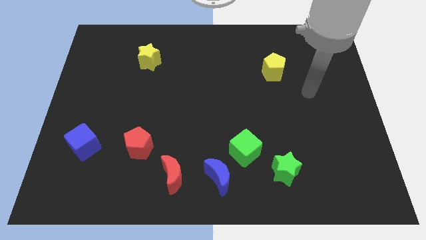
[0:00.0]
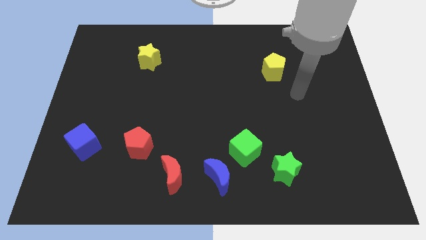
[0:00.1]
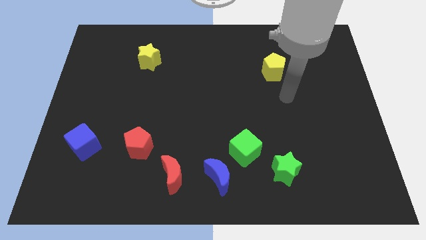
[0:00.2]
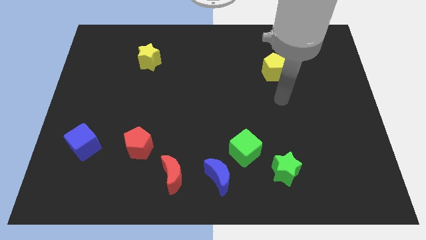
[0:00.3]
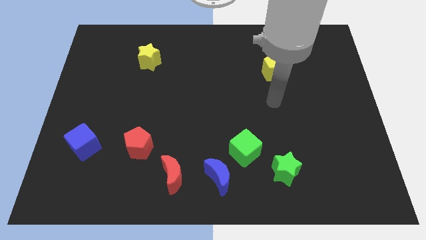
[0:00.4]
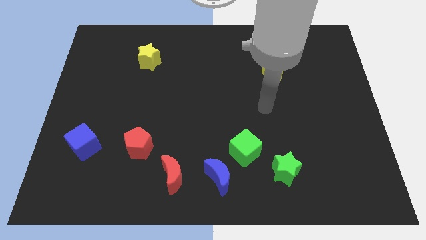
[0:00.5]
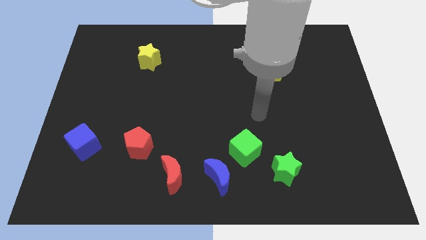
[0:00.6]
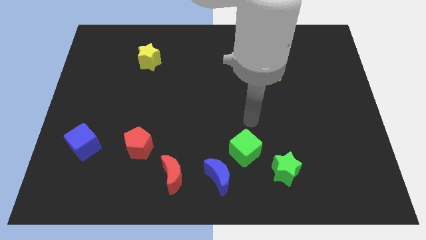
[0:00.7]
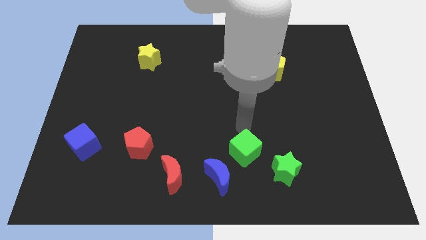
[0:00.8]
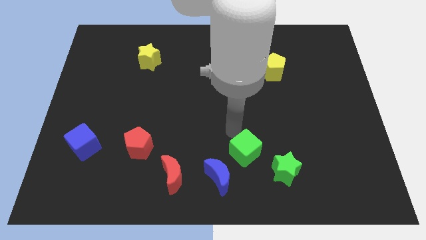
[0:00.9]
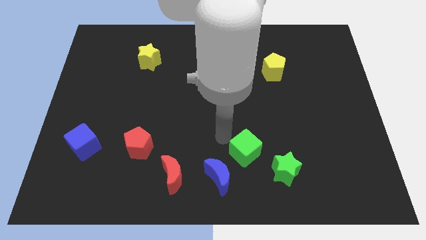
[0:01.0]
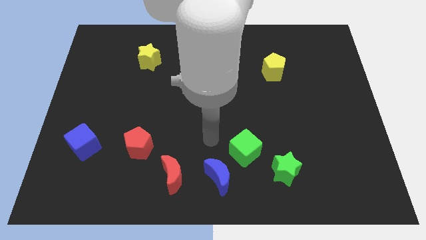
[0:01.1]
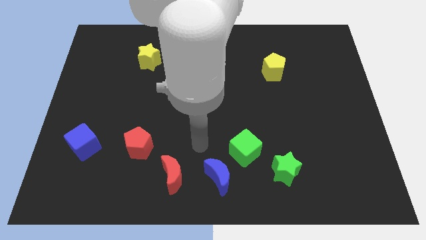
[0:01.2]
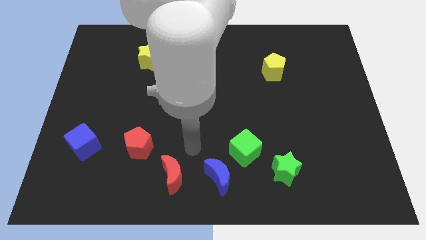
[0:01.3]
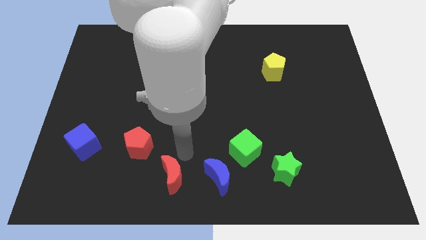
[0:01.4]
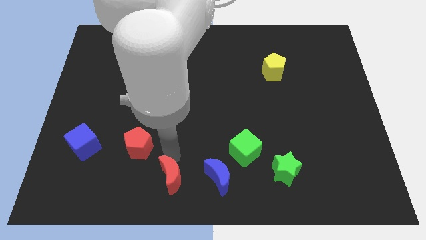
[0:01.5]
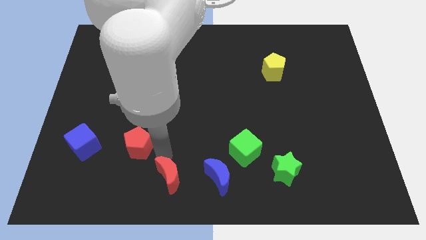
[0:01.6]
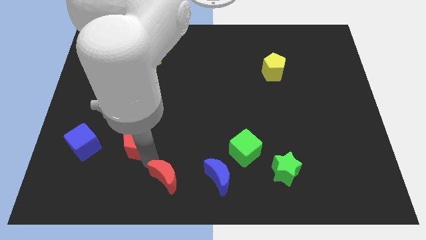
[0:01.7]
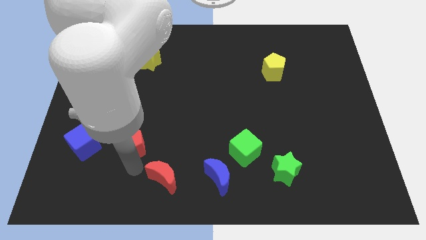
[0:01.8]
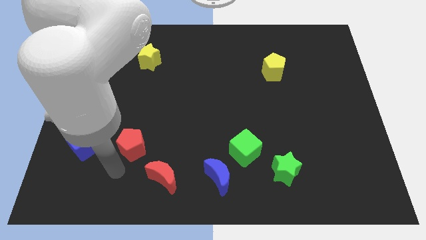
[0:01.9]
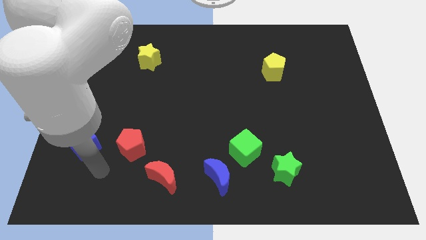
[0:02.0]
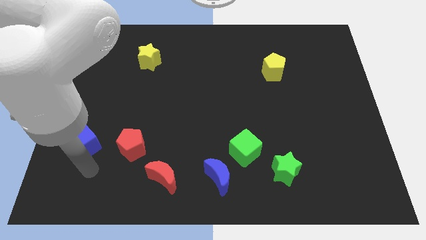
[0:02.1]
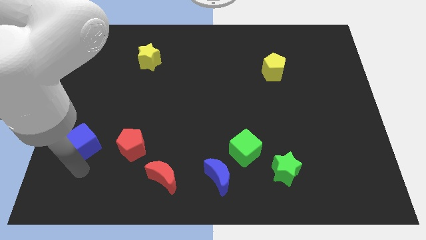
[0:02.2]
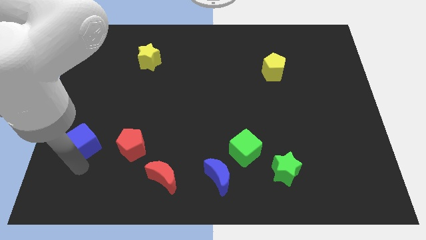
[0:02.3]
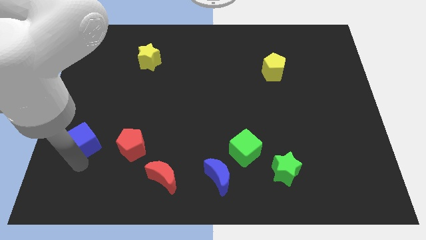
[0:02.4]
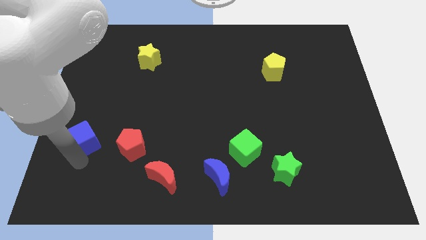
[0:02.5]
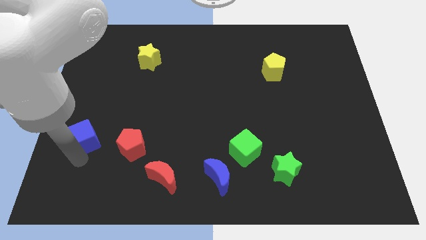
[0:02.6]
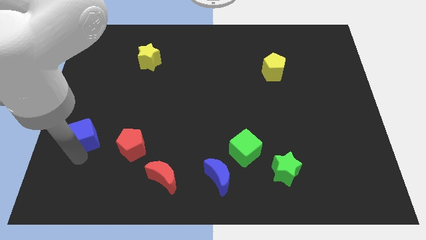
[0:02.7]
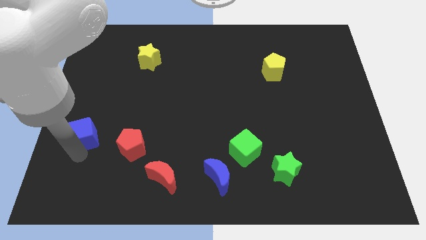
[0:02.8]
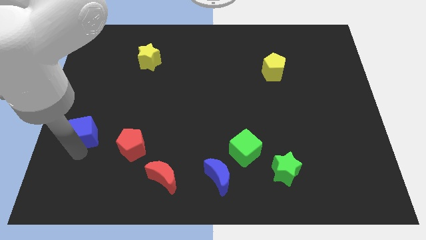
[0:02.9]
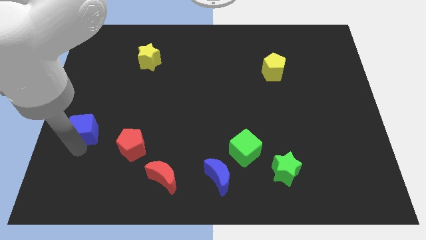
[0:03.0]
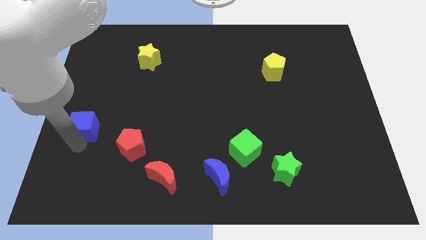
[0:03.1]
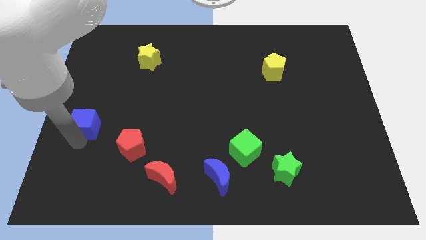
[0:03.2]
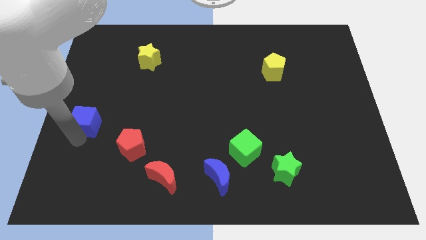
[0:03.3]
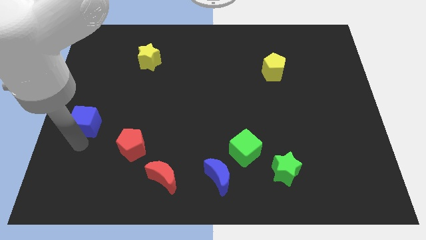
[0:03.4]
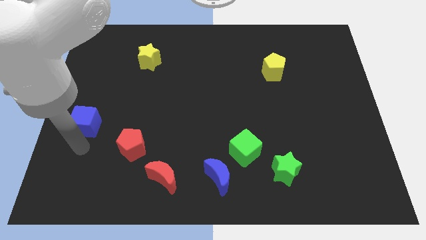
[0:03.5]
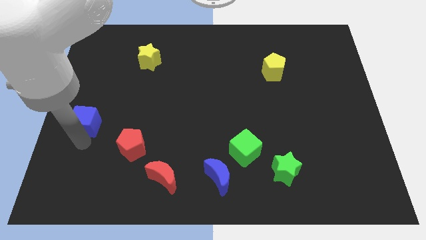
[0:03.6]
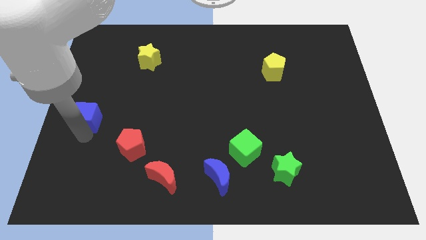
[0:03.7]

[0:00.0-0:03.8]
slide the blue cube somewhat upwards

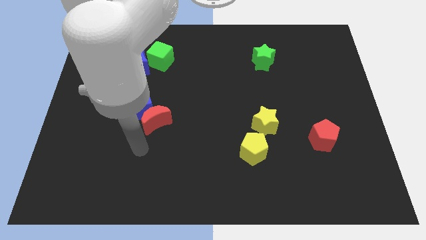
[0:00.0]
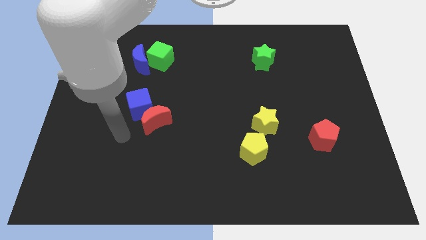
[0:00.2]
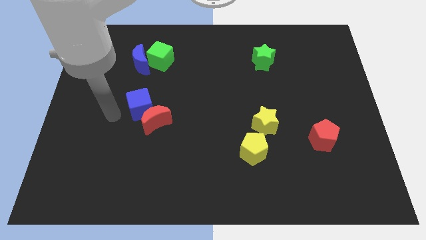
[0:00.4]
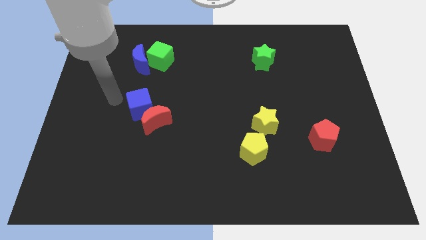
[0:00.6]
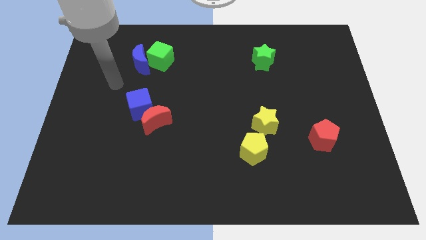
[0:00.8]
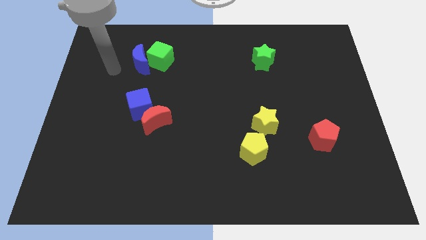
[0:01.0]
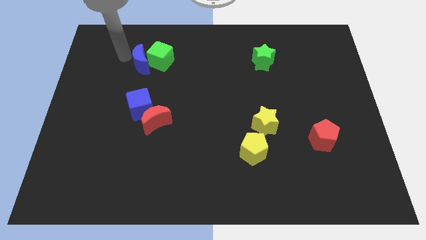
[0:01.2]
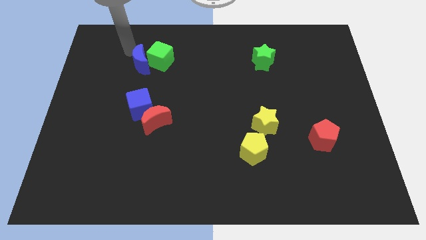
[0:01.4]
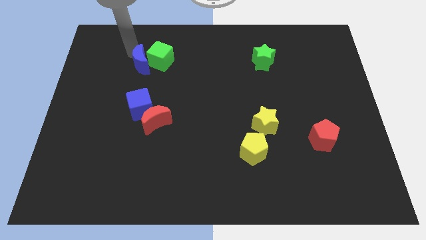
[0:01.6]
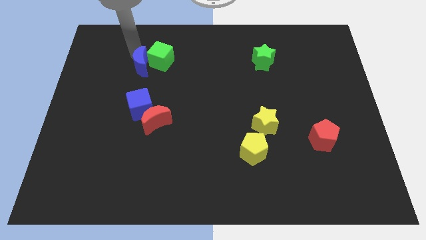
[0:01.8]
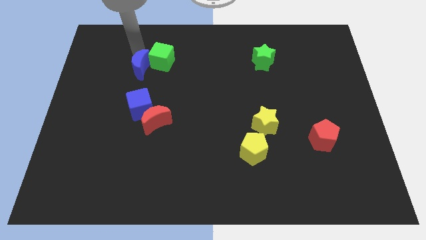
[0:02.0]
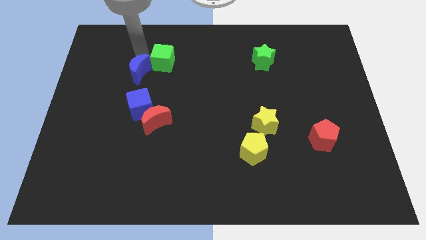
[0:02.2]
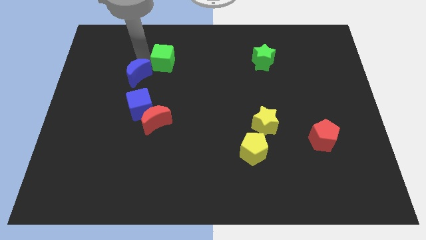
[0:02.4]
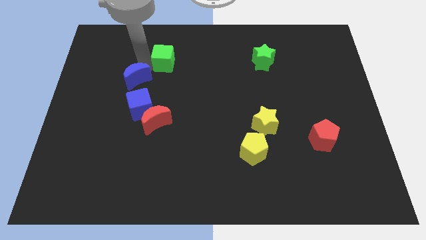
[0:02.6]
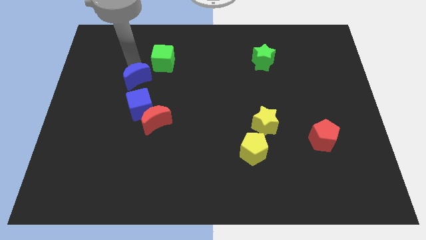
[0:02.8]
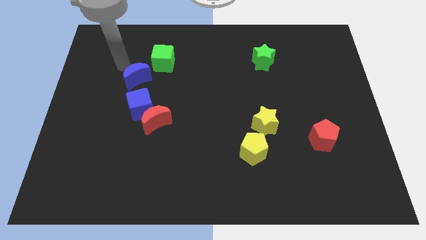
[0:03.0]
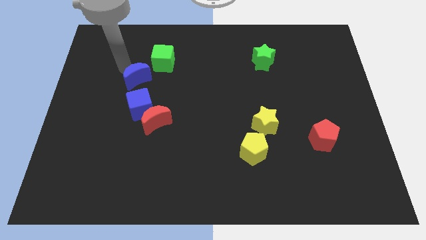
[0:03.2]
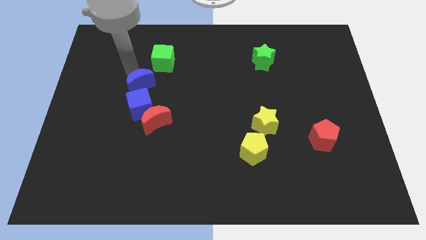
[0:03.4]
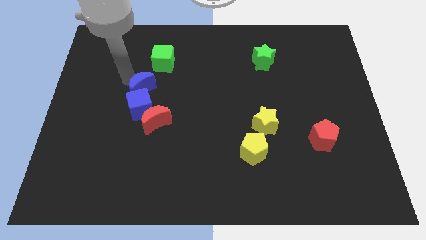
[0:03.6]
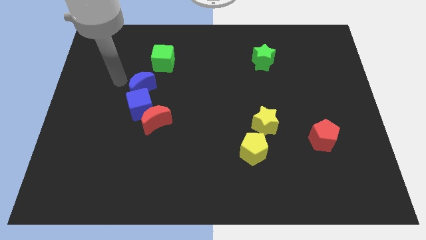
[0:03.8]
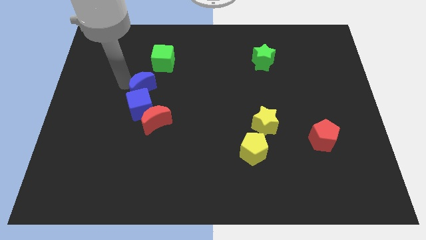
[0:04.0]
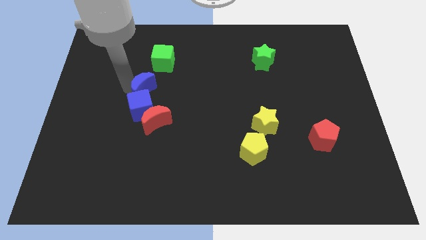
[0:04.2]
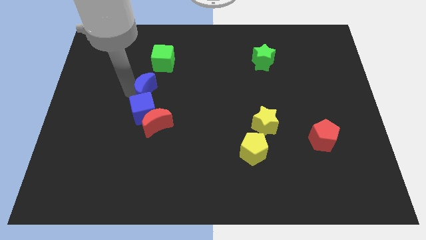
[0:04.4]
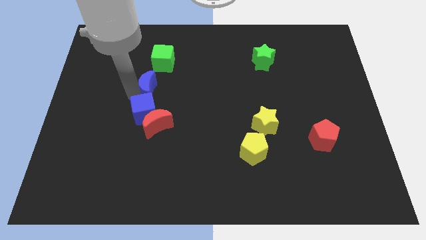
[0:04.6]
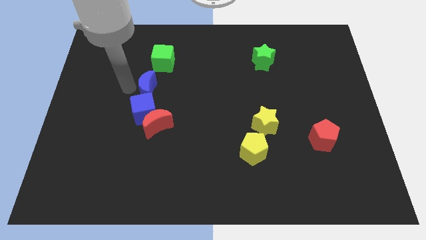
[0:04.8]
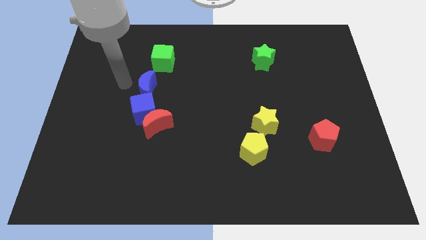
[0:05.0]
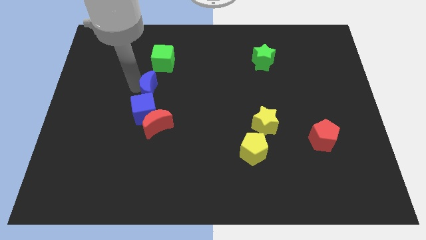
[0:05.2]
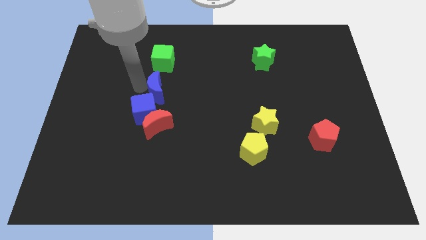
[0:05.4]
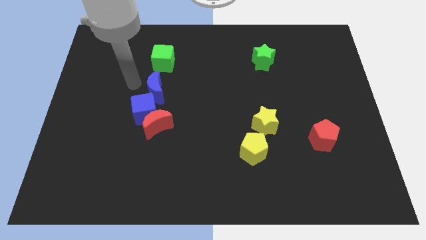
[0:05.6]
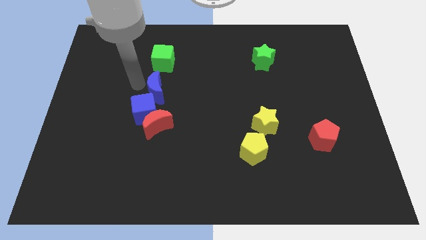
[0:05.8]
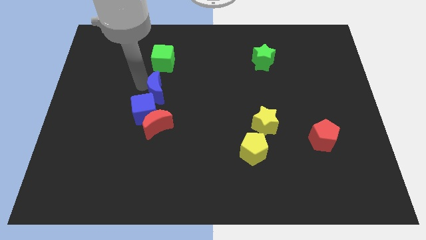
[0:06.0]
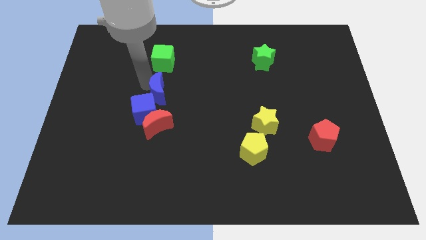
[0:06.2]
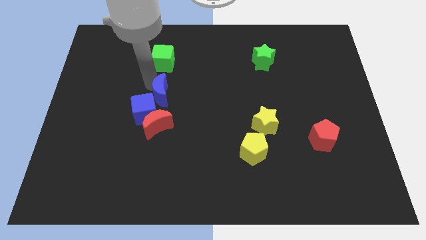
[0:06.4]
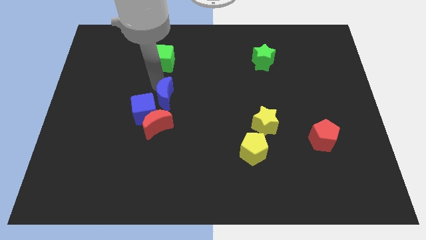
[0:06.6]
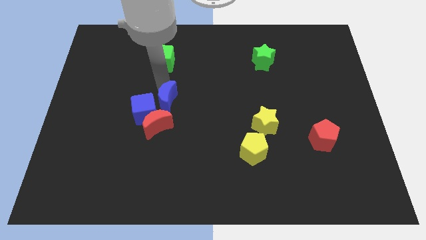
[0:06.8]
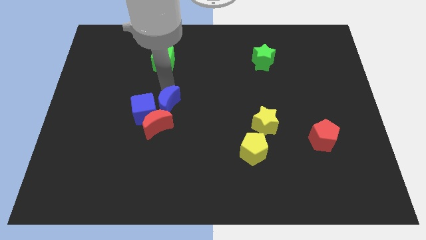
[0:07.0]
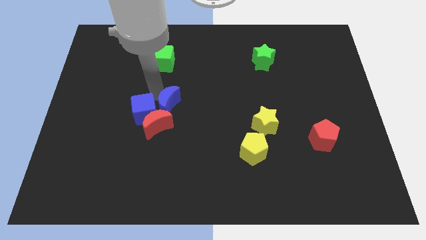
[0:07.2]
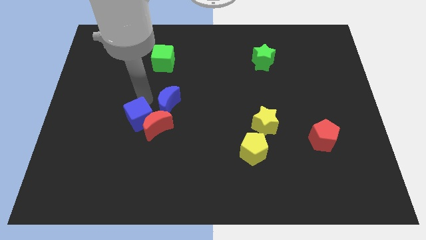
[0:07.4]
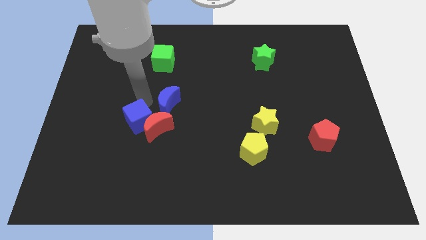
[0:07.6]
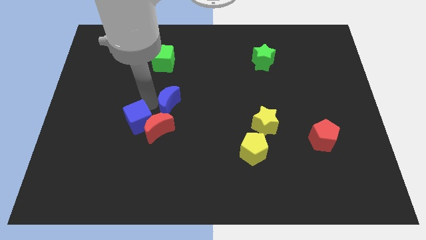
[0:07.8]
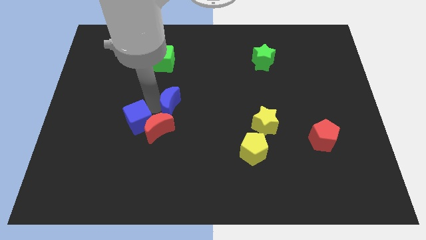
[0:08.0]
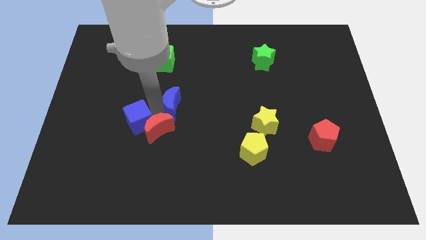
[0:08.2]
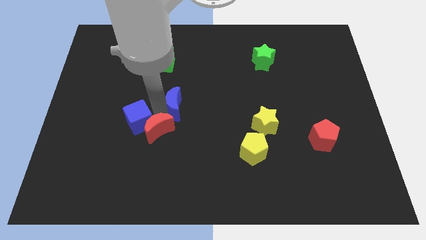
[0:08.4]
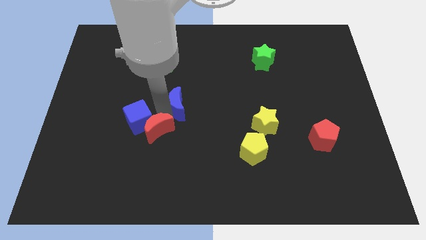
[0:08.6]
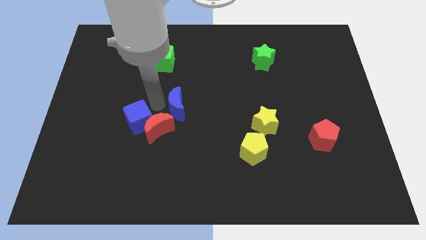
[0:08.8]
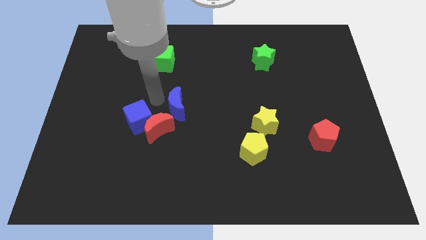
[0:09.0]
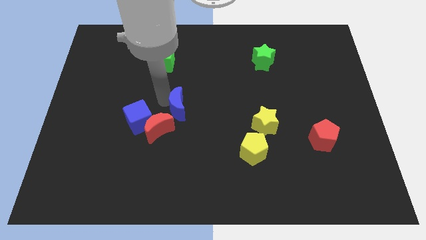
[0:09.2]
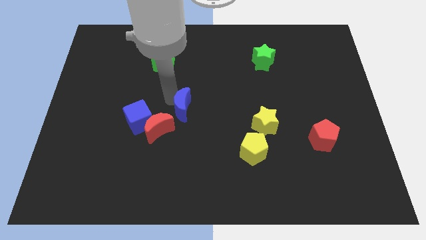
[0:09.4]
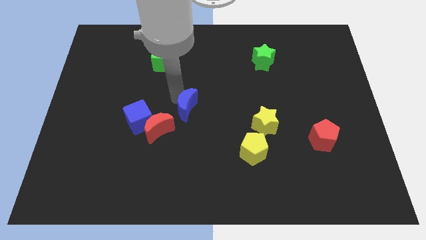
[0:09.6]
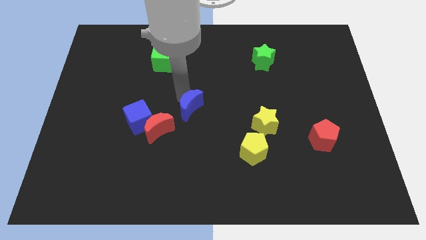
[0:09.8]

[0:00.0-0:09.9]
push the blue moon diagonally down and right
